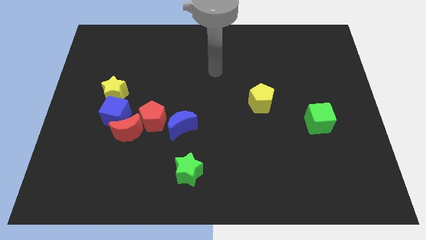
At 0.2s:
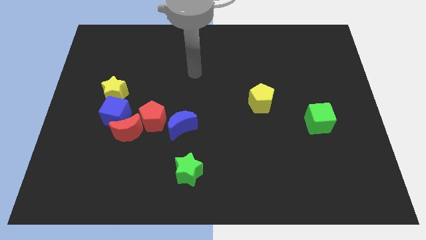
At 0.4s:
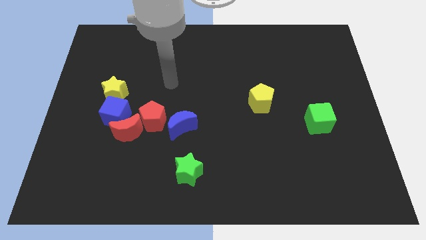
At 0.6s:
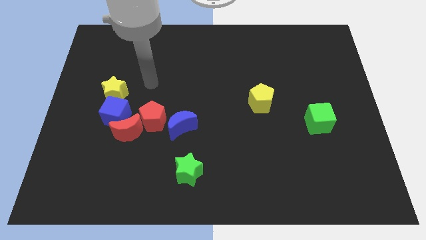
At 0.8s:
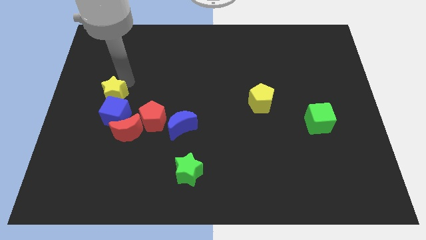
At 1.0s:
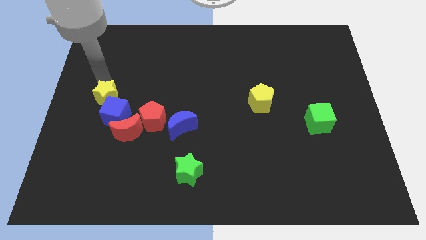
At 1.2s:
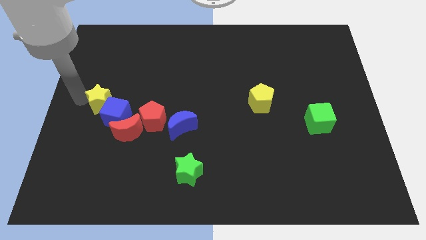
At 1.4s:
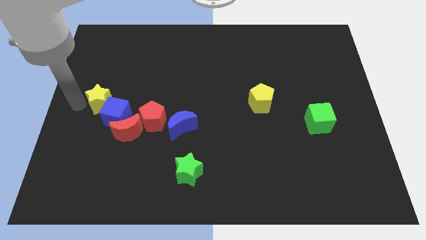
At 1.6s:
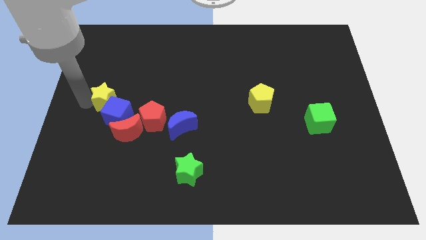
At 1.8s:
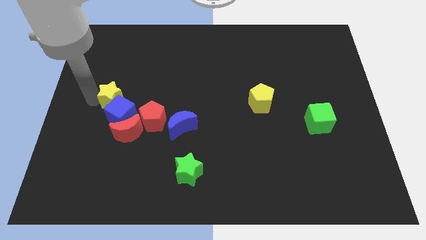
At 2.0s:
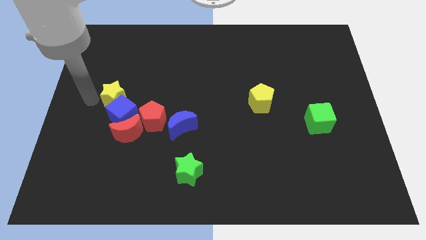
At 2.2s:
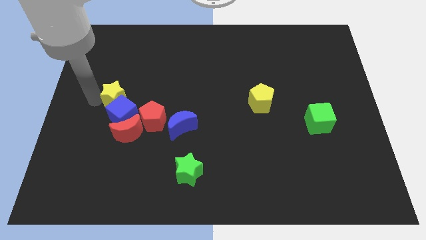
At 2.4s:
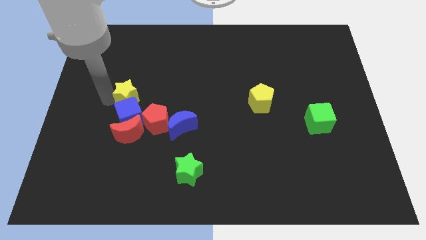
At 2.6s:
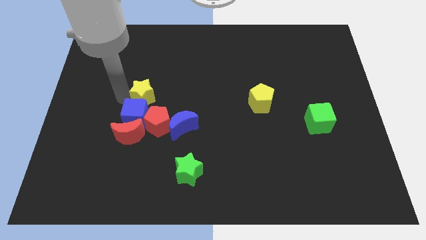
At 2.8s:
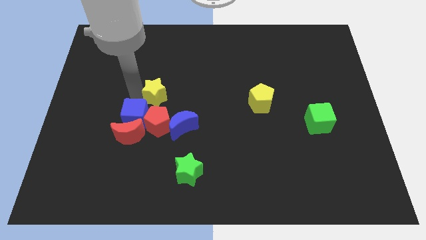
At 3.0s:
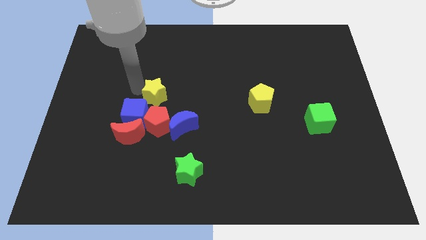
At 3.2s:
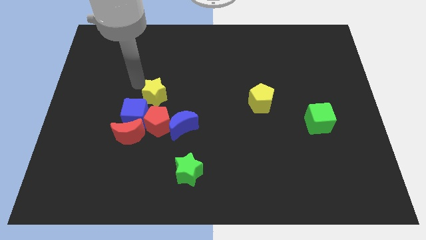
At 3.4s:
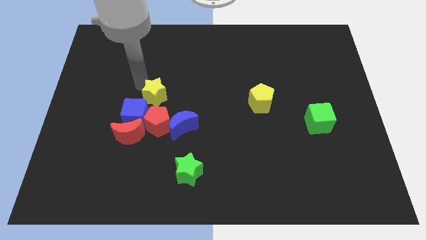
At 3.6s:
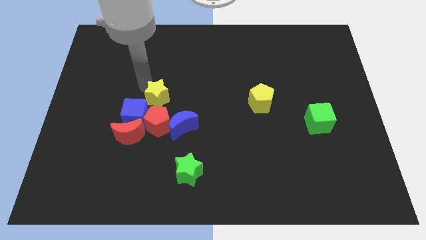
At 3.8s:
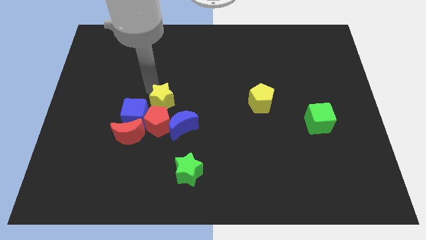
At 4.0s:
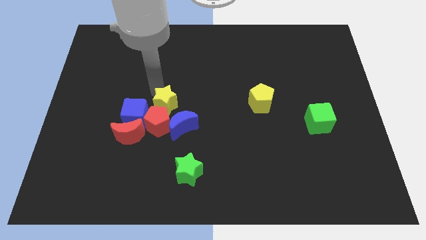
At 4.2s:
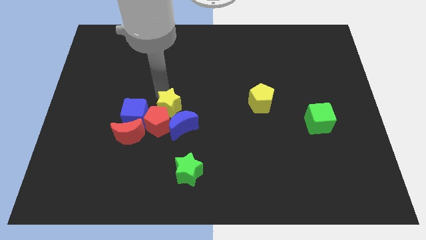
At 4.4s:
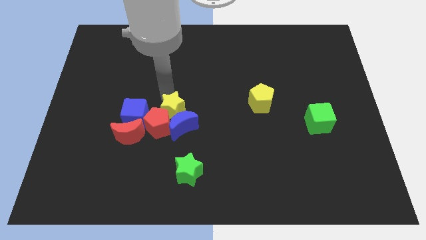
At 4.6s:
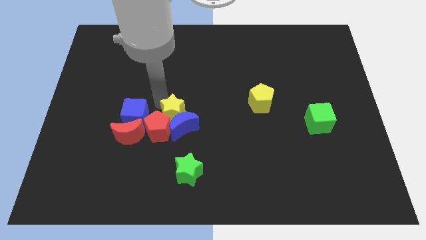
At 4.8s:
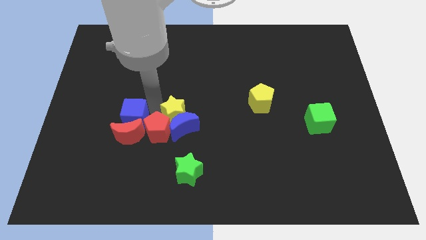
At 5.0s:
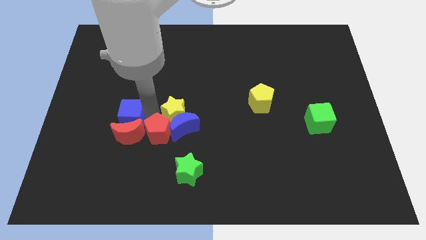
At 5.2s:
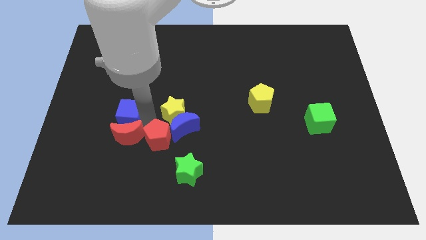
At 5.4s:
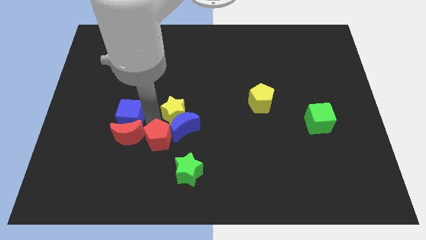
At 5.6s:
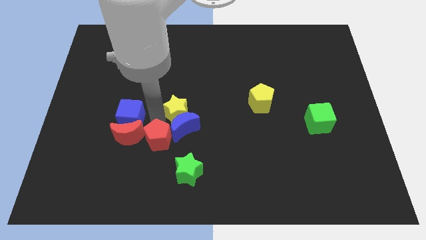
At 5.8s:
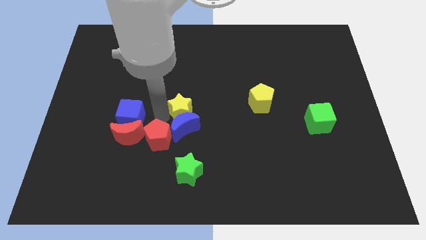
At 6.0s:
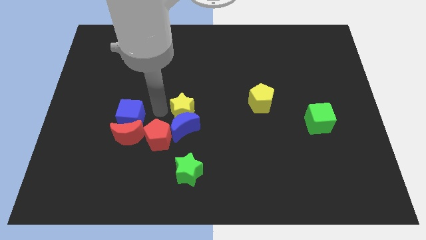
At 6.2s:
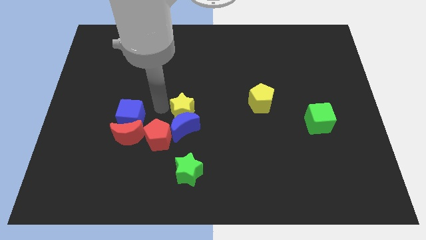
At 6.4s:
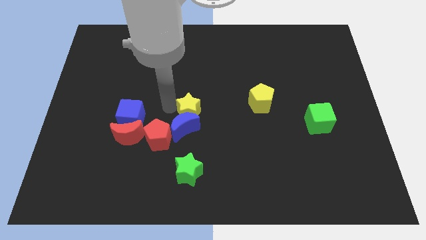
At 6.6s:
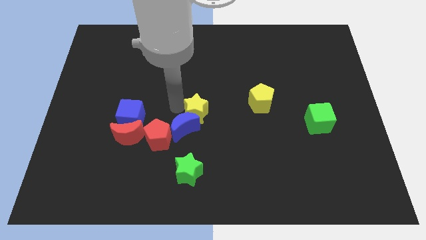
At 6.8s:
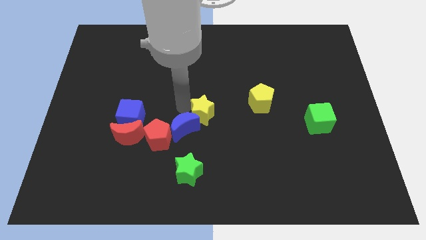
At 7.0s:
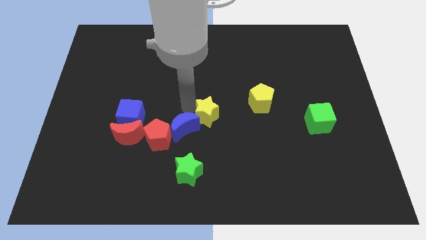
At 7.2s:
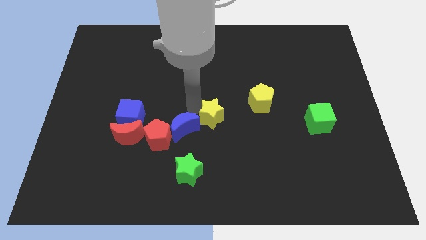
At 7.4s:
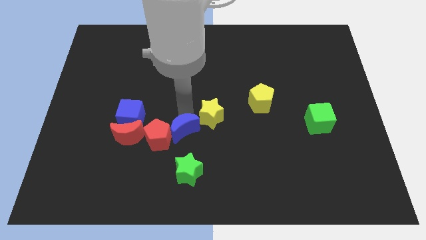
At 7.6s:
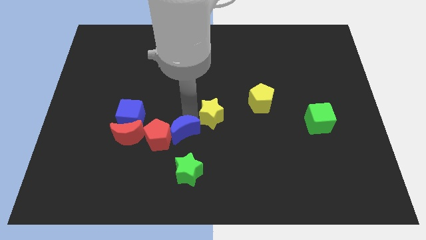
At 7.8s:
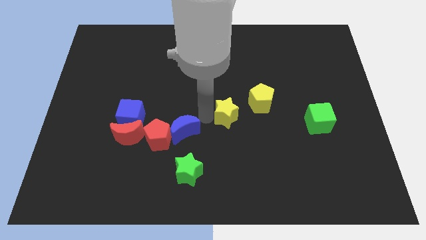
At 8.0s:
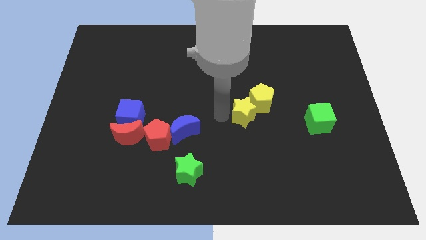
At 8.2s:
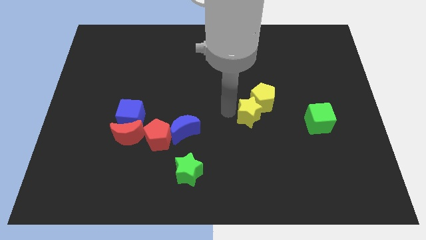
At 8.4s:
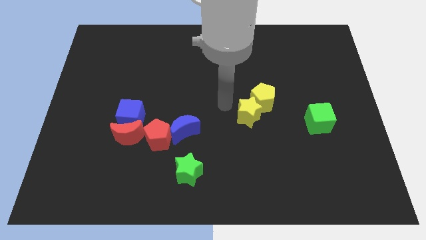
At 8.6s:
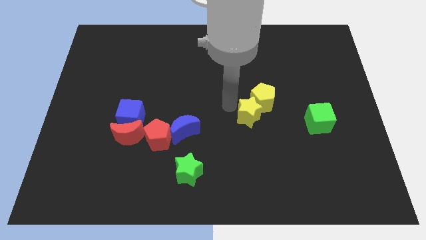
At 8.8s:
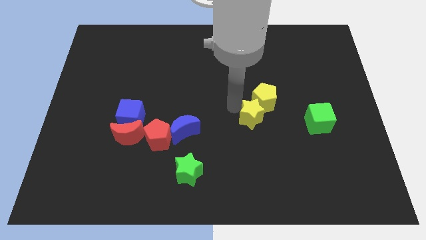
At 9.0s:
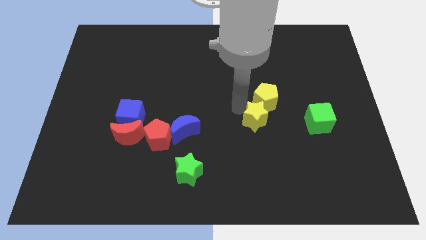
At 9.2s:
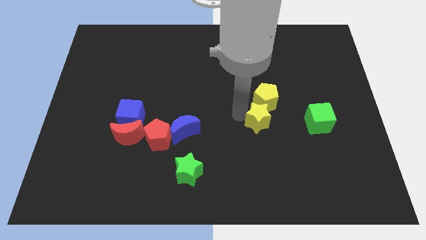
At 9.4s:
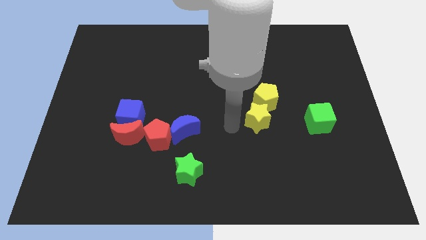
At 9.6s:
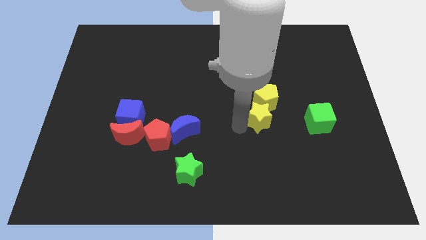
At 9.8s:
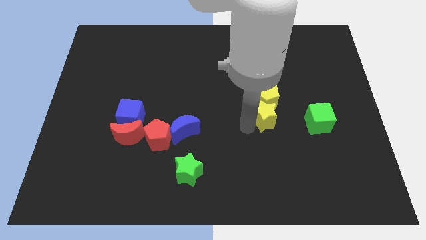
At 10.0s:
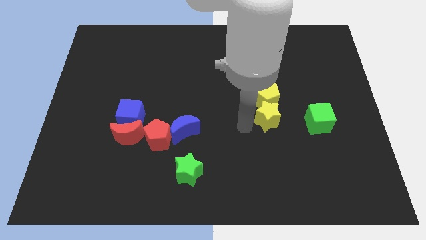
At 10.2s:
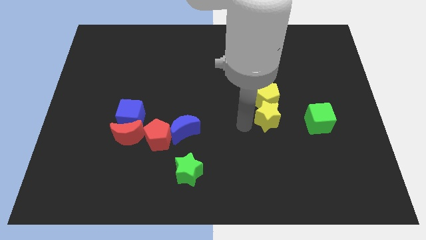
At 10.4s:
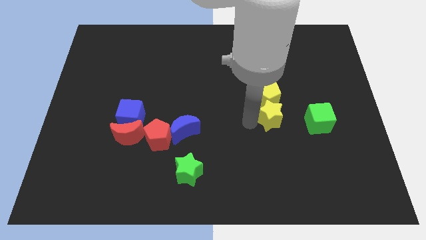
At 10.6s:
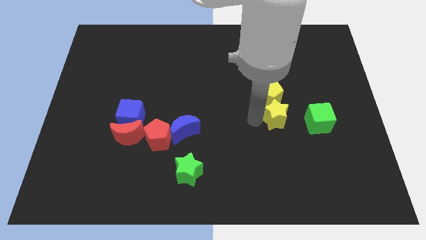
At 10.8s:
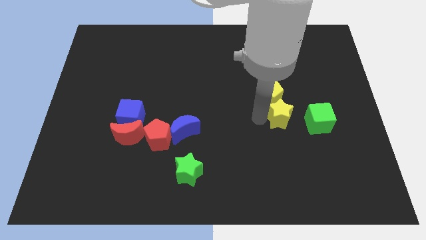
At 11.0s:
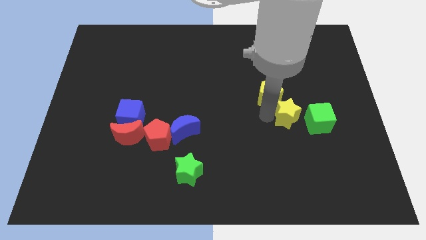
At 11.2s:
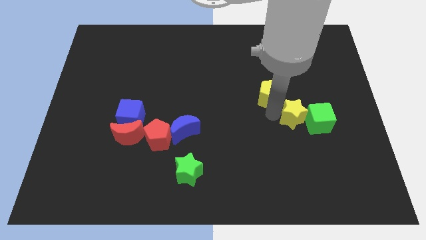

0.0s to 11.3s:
push the yellow star close to the green cube

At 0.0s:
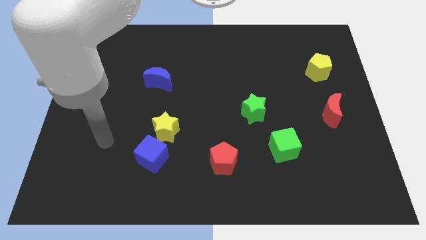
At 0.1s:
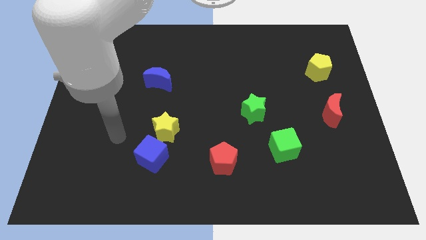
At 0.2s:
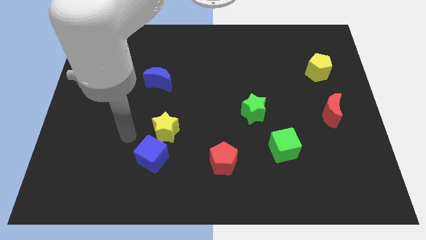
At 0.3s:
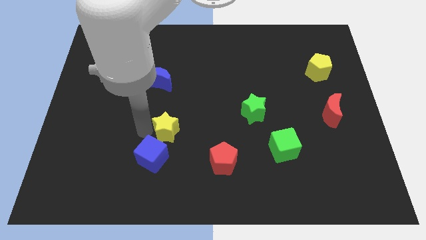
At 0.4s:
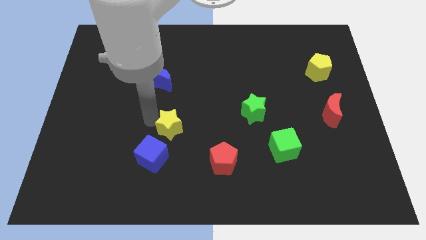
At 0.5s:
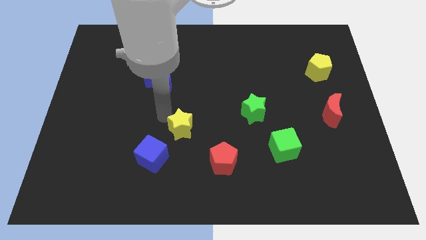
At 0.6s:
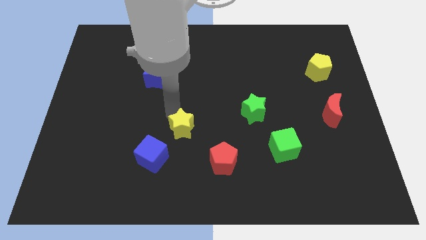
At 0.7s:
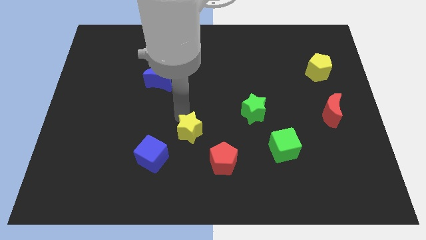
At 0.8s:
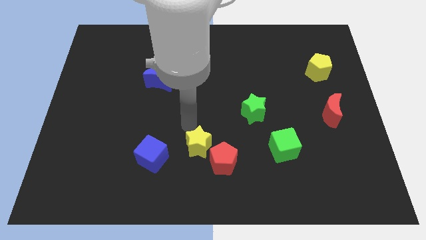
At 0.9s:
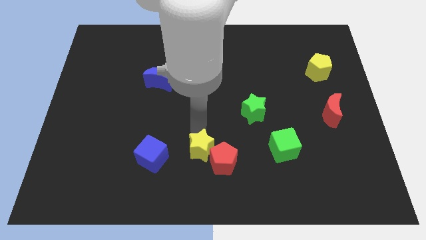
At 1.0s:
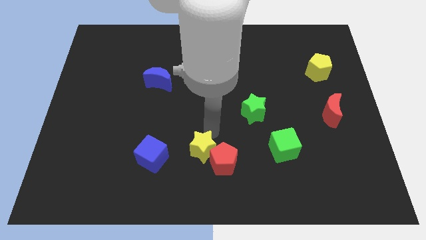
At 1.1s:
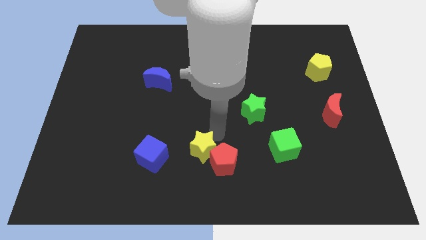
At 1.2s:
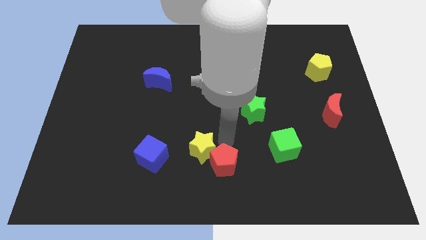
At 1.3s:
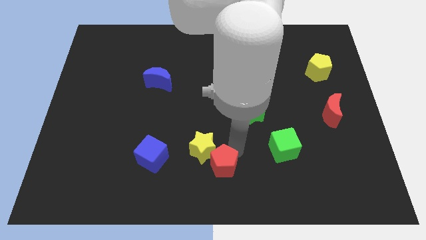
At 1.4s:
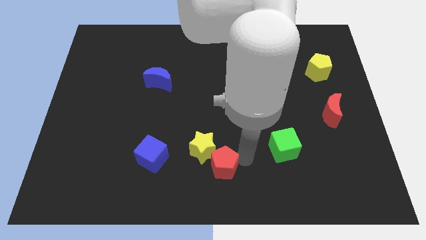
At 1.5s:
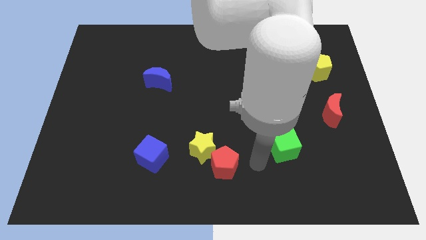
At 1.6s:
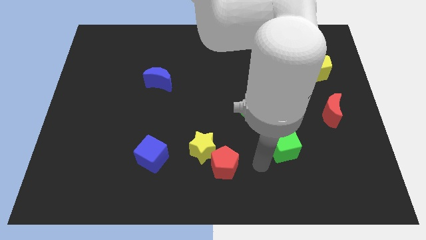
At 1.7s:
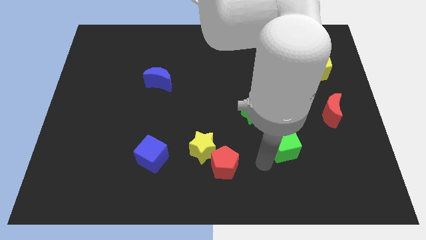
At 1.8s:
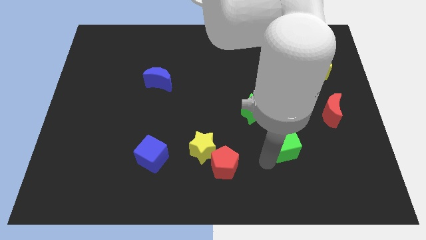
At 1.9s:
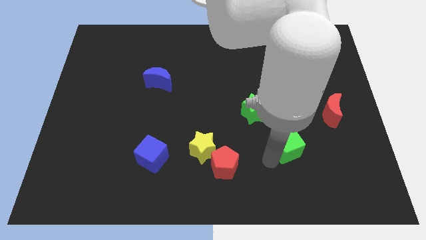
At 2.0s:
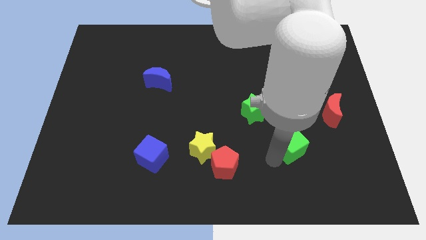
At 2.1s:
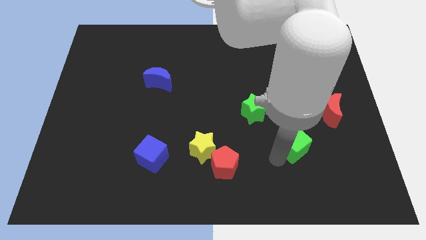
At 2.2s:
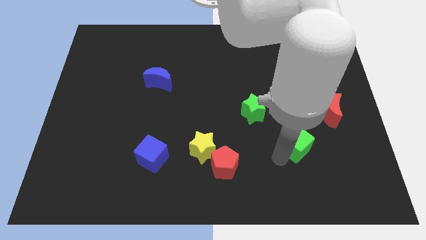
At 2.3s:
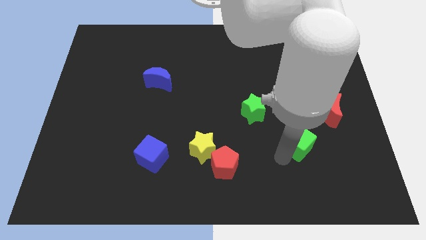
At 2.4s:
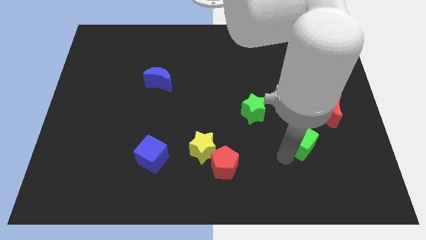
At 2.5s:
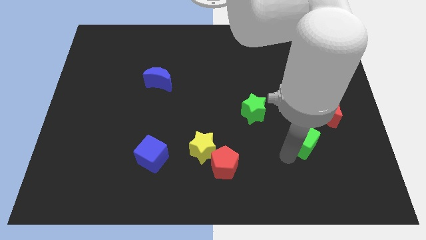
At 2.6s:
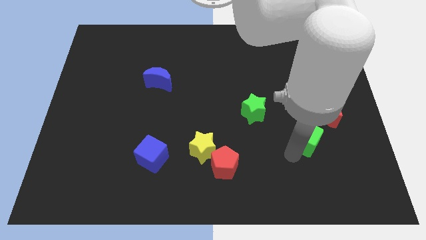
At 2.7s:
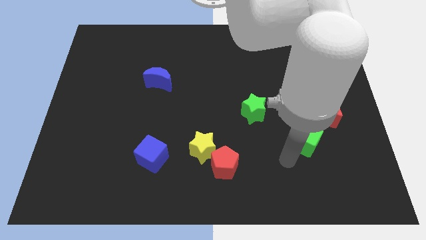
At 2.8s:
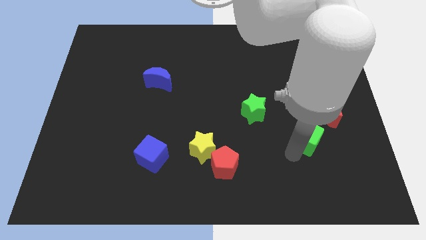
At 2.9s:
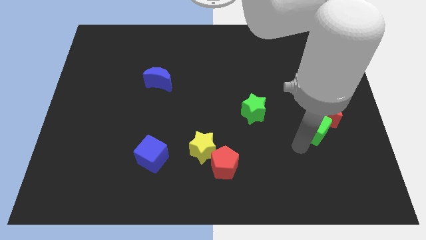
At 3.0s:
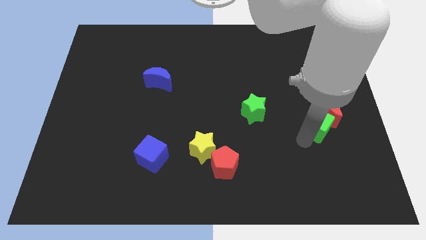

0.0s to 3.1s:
put the green cube to the red moon
